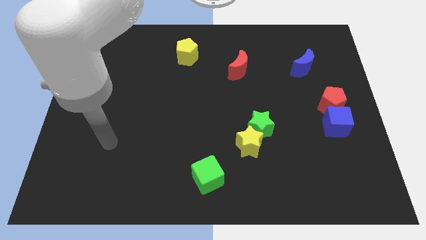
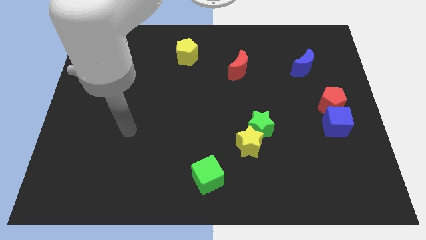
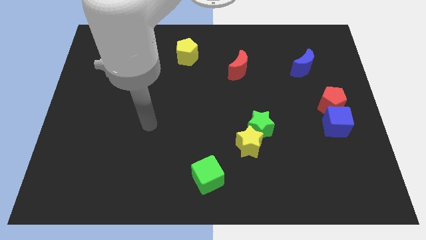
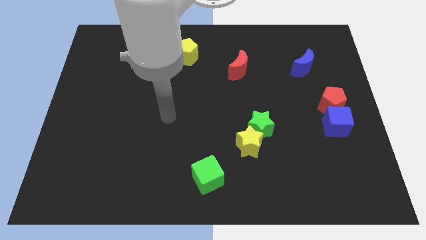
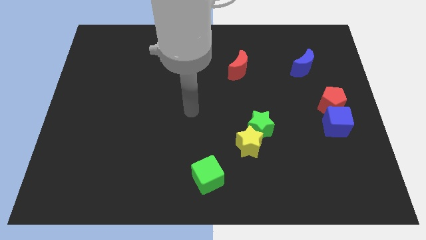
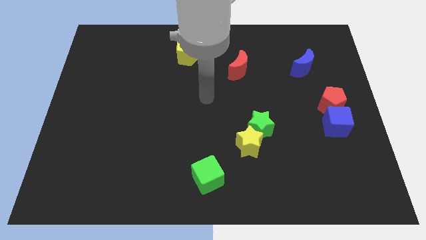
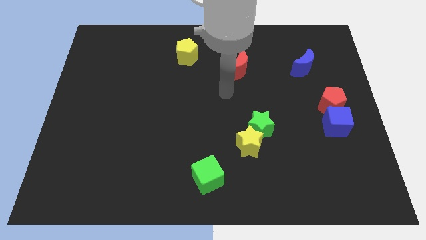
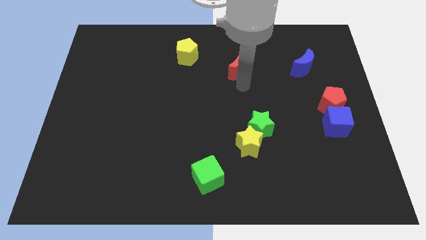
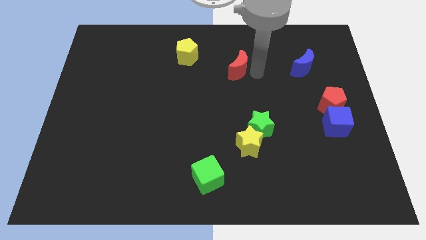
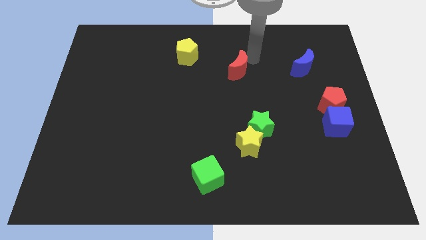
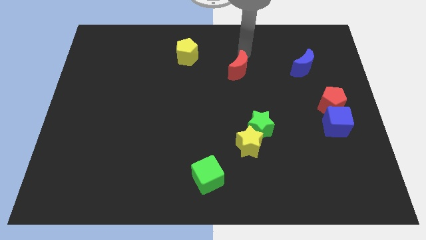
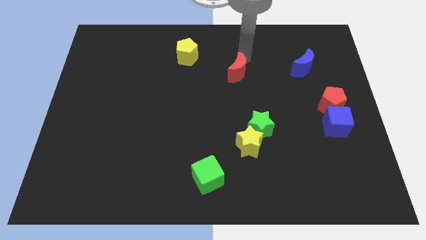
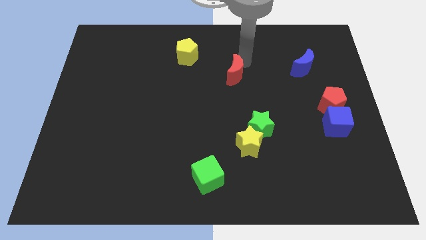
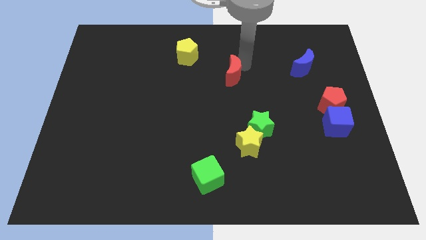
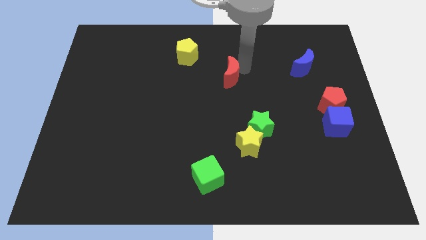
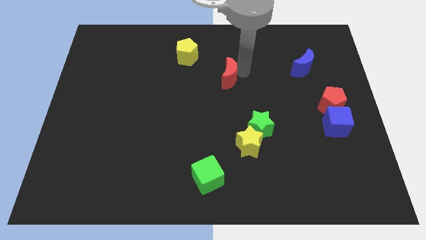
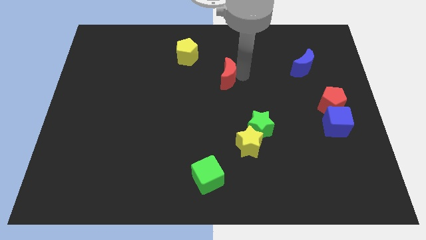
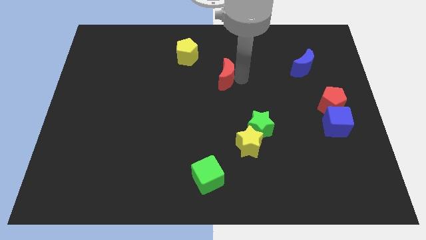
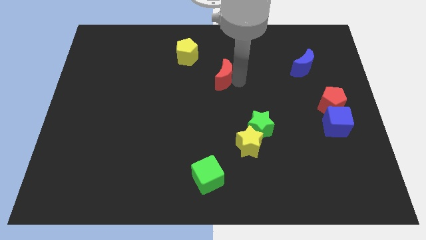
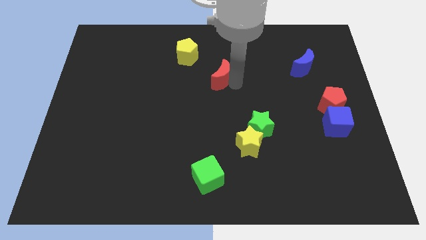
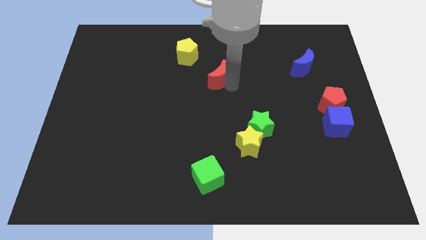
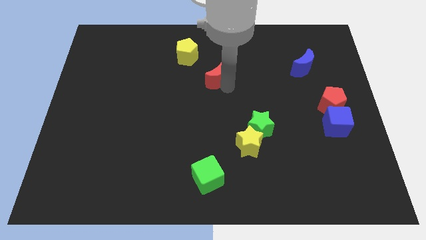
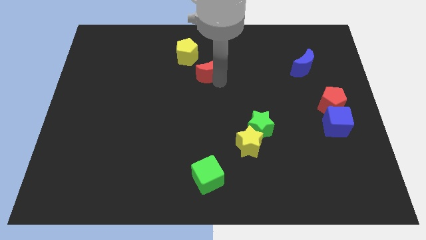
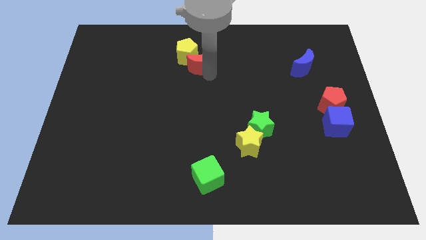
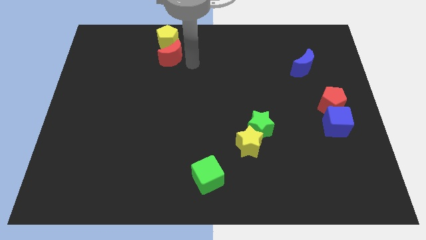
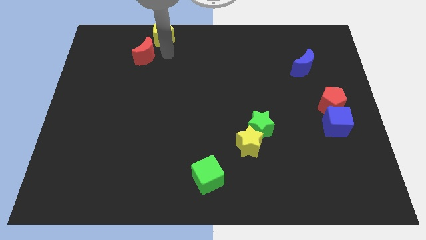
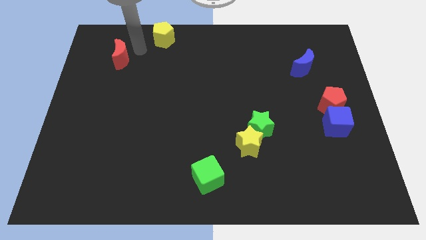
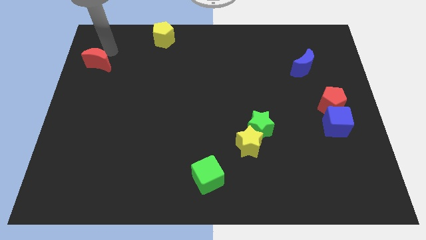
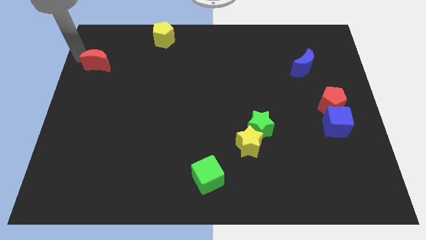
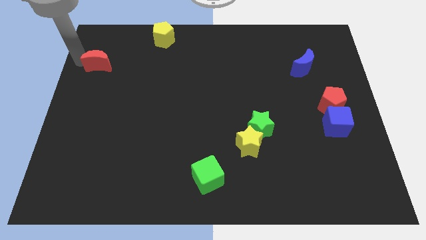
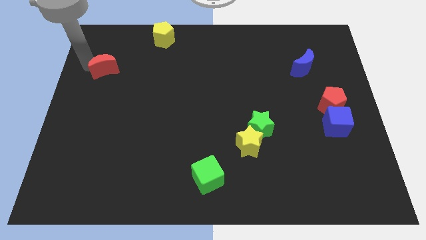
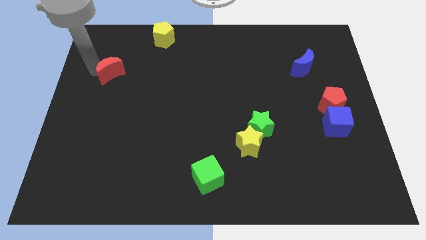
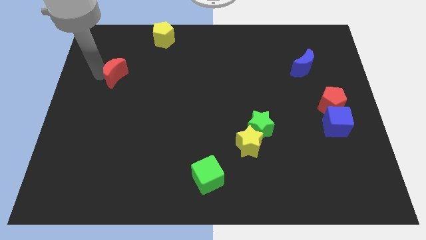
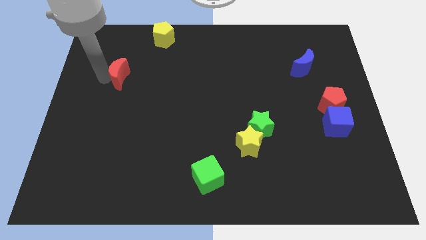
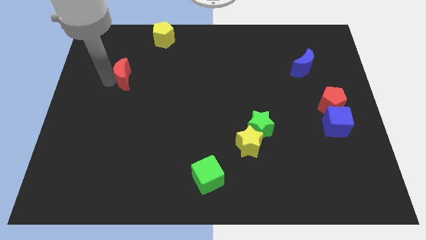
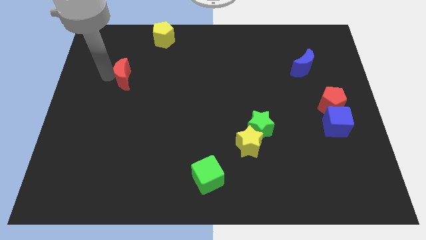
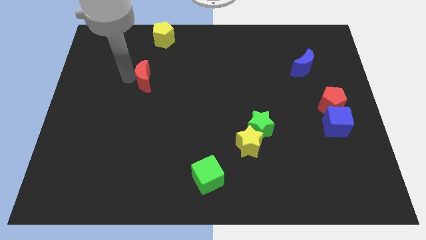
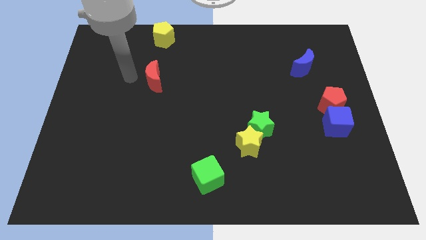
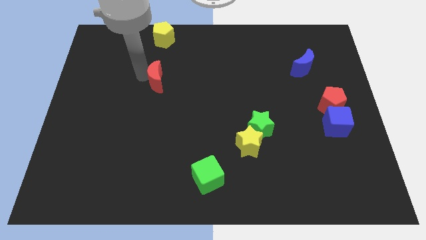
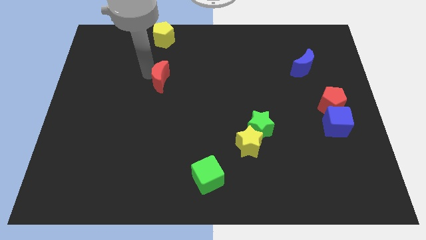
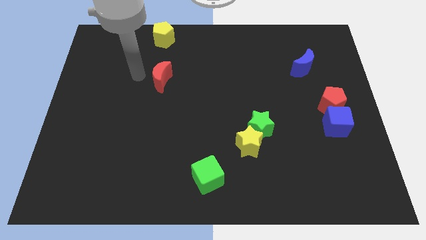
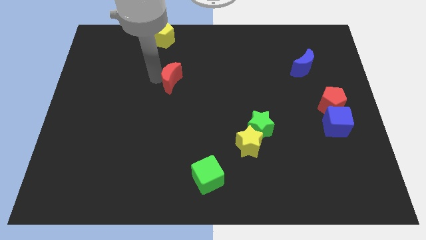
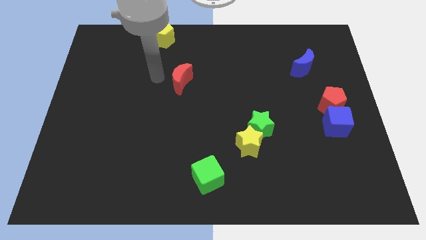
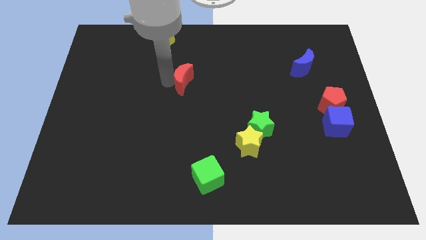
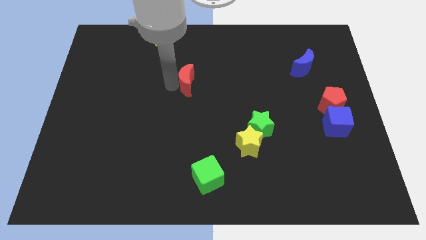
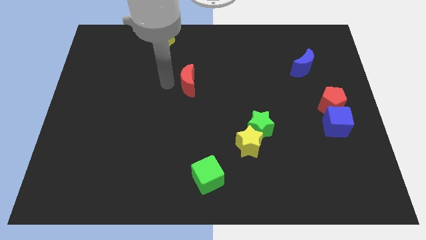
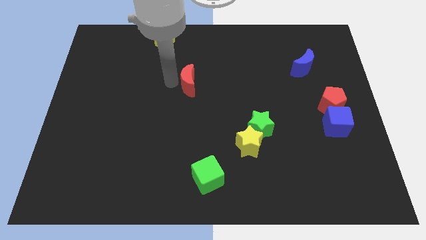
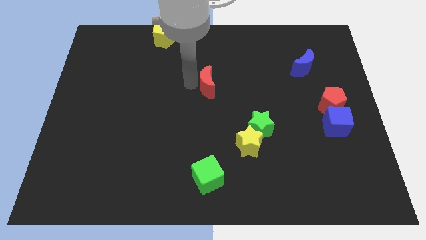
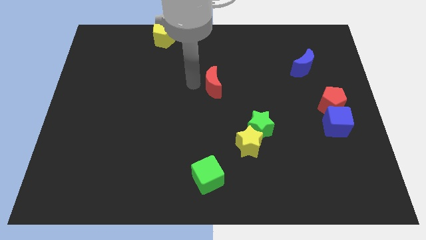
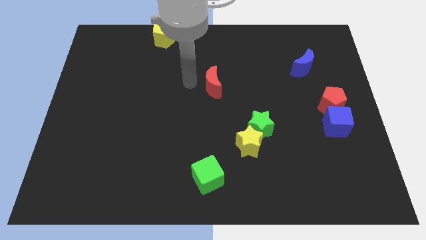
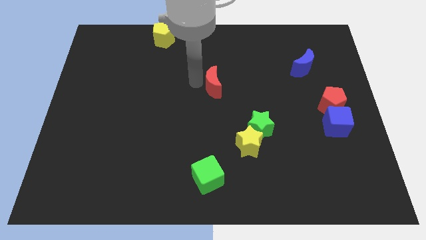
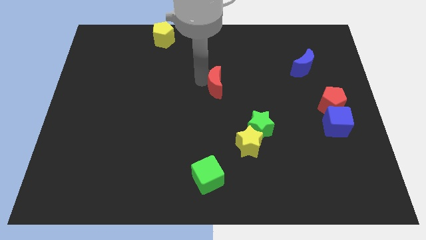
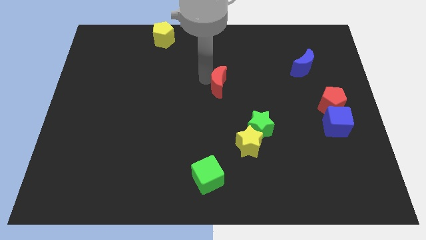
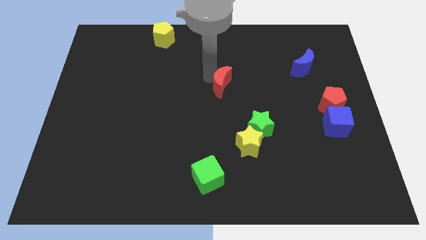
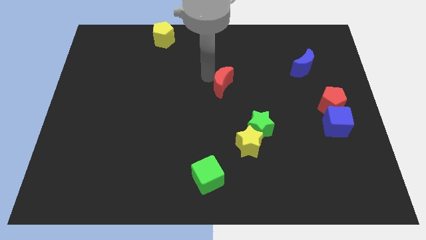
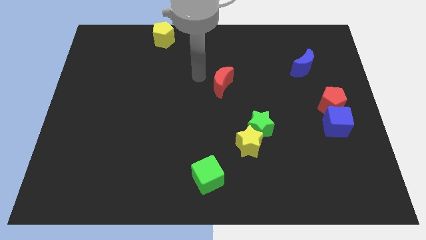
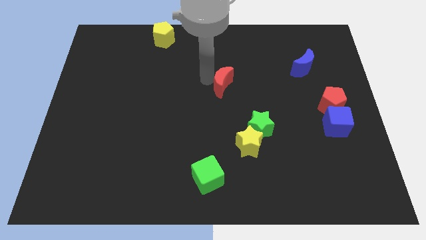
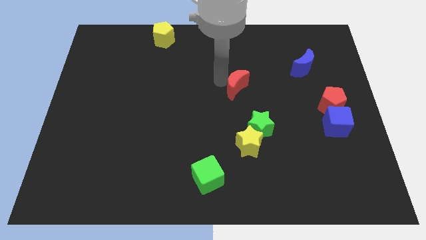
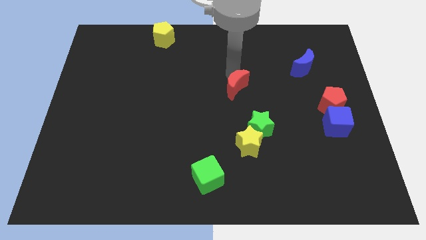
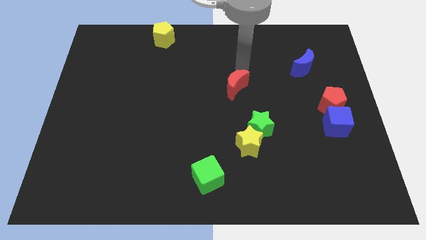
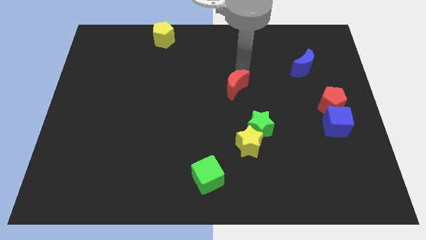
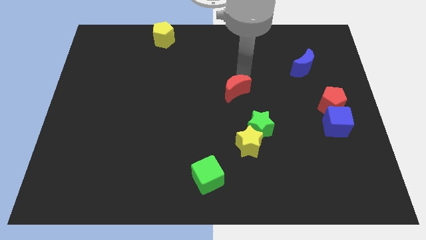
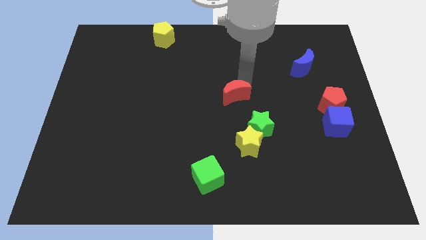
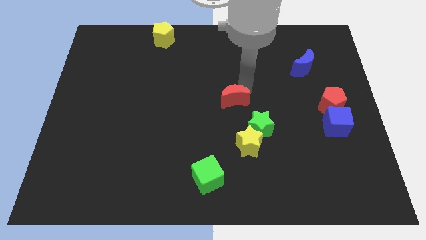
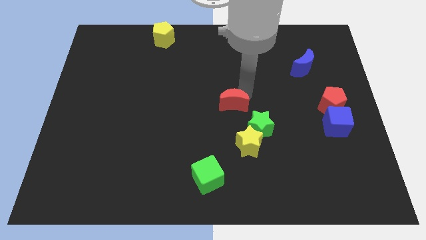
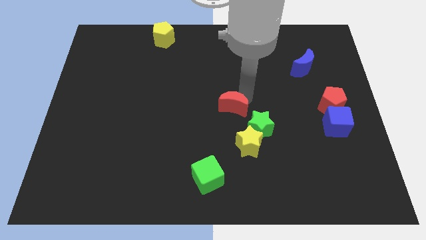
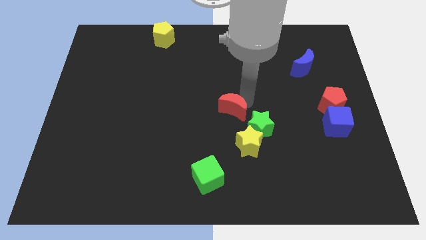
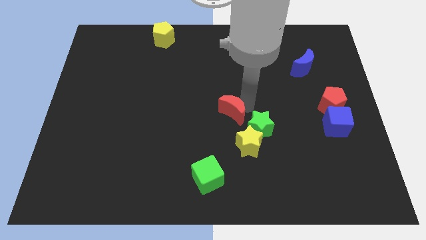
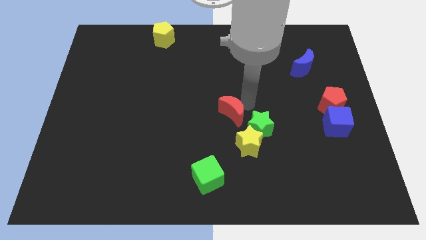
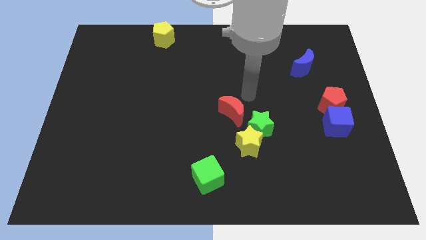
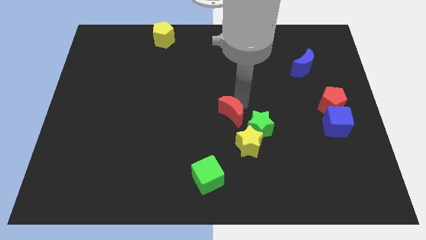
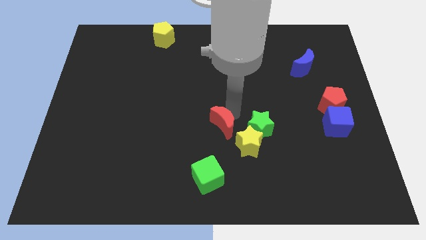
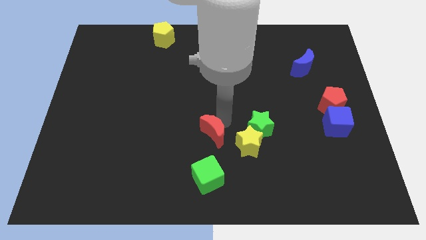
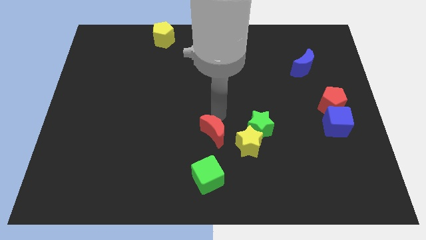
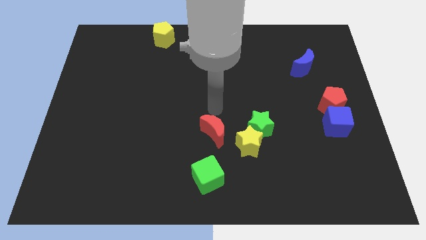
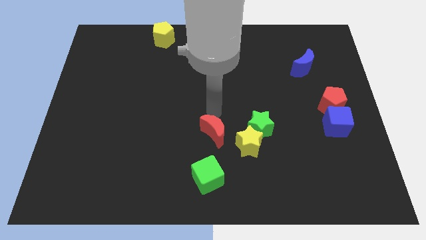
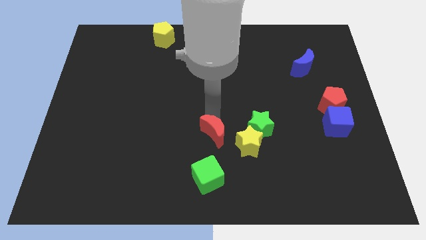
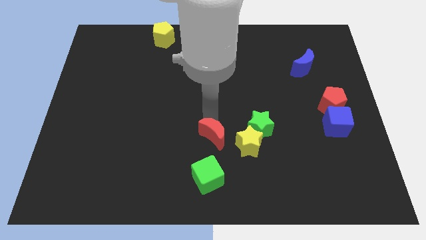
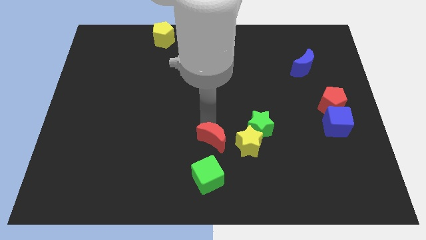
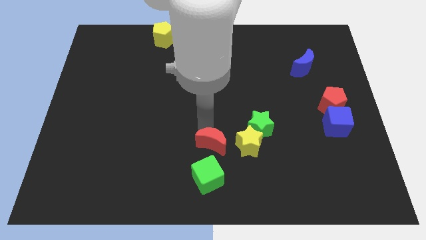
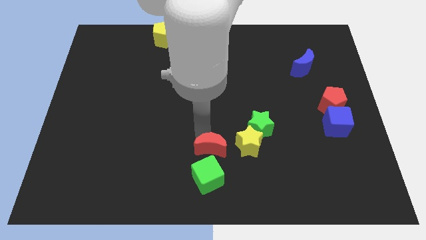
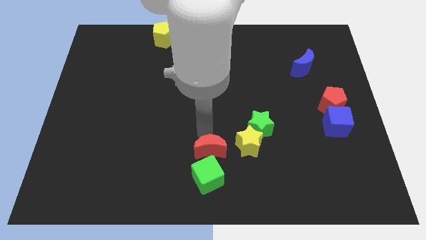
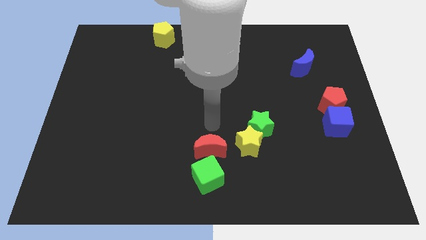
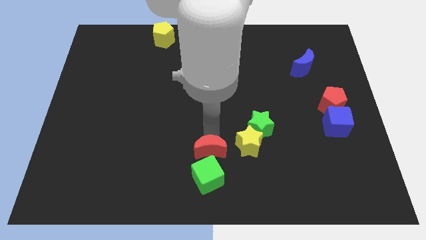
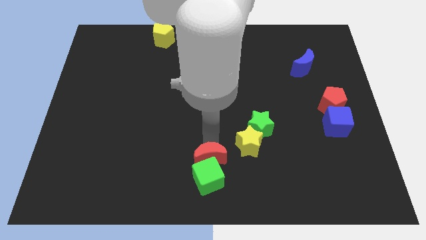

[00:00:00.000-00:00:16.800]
move the red moon close to the green cube
